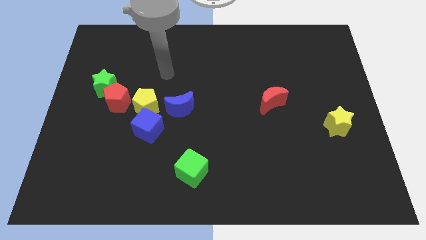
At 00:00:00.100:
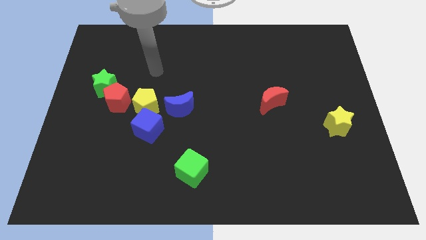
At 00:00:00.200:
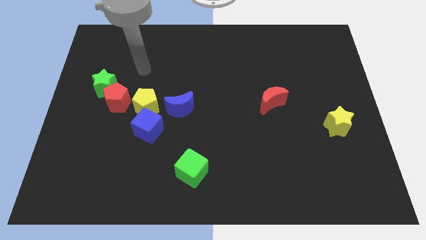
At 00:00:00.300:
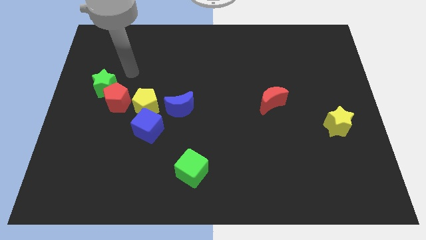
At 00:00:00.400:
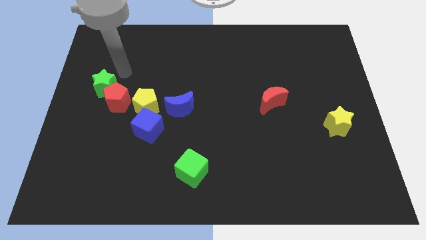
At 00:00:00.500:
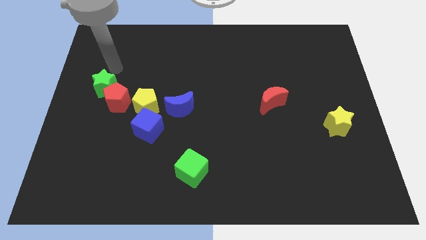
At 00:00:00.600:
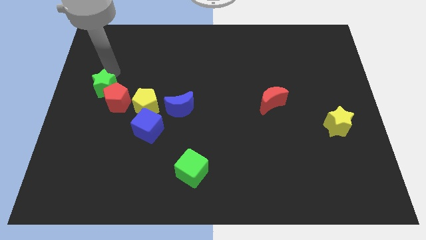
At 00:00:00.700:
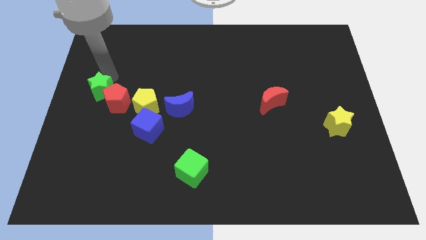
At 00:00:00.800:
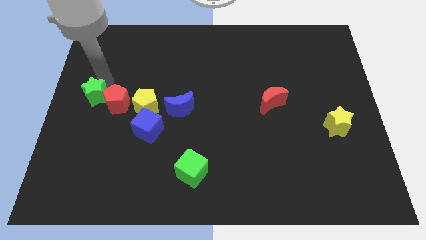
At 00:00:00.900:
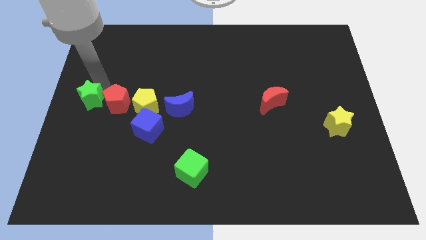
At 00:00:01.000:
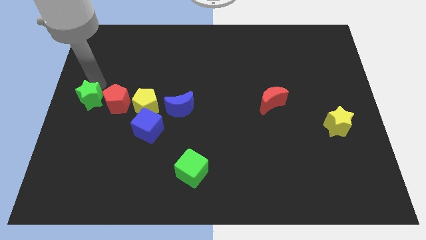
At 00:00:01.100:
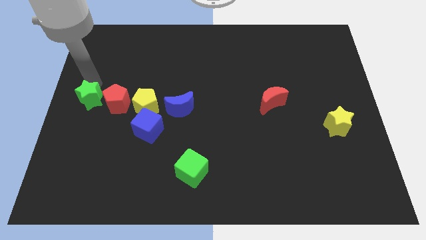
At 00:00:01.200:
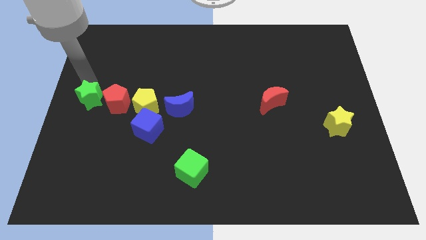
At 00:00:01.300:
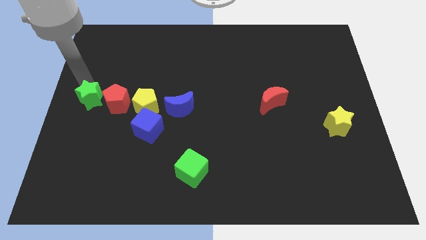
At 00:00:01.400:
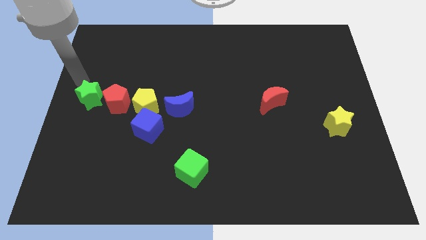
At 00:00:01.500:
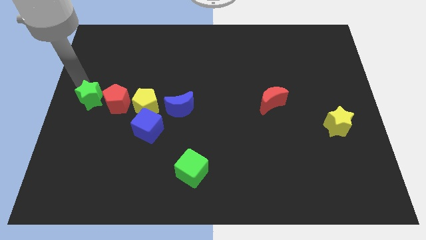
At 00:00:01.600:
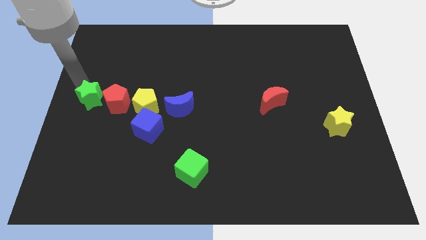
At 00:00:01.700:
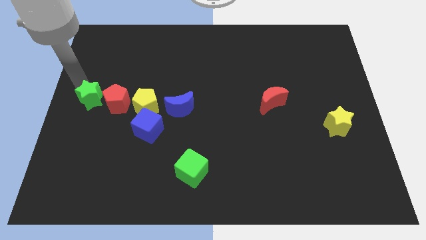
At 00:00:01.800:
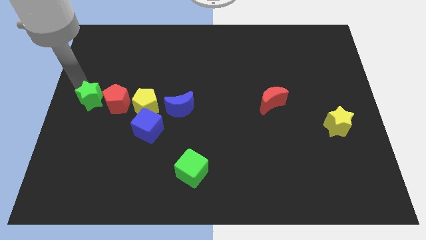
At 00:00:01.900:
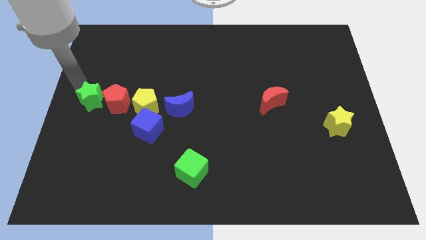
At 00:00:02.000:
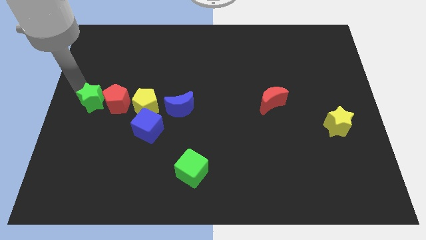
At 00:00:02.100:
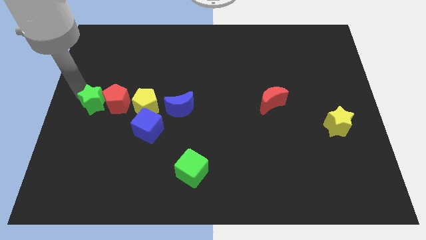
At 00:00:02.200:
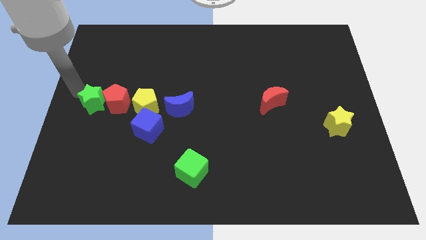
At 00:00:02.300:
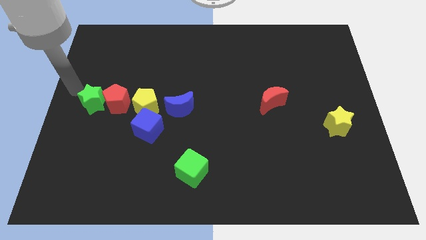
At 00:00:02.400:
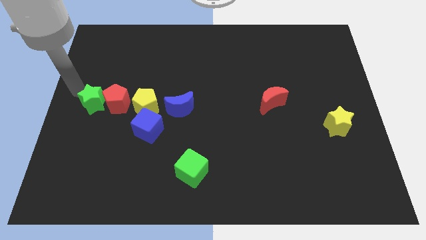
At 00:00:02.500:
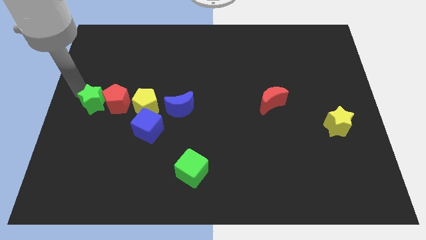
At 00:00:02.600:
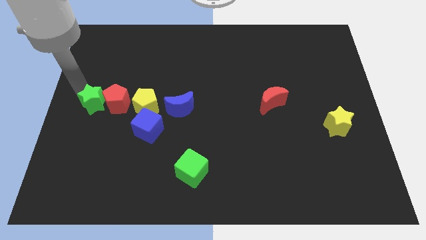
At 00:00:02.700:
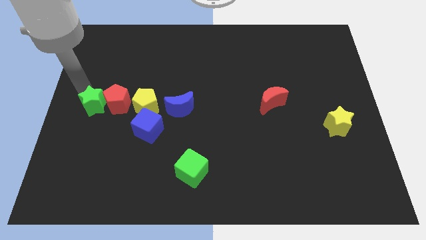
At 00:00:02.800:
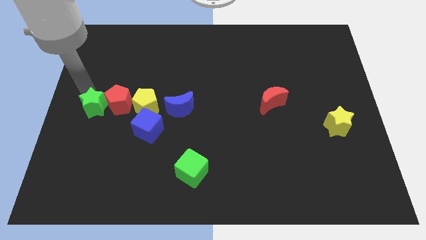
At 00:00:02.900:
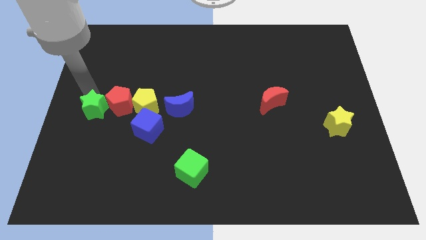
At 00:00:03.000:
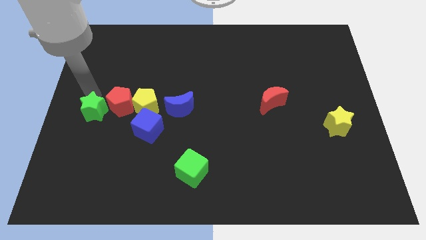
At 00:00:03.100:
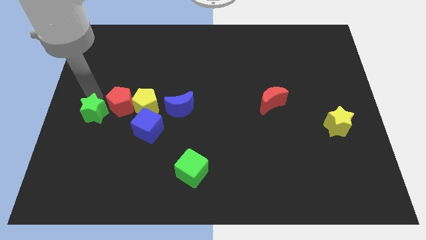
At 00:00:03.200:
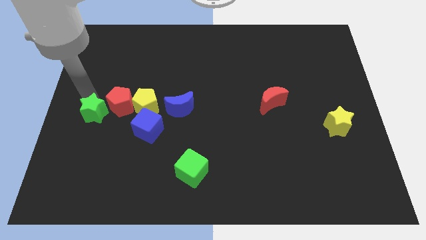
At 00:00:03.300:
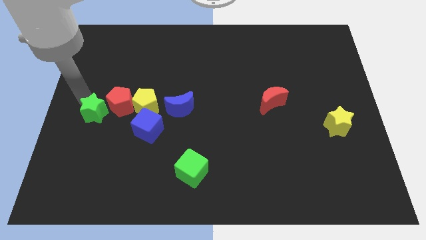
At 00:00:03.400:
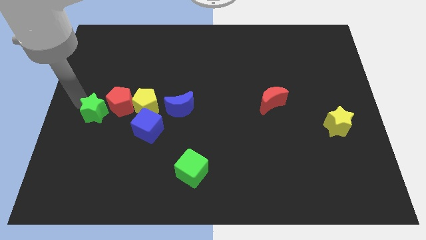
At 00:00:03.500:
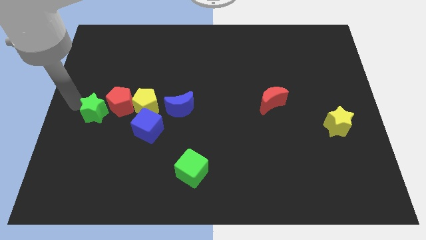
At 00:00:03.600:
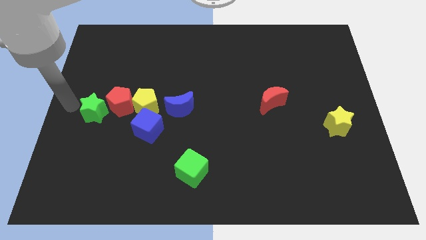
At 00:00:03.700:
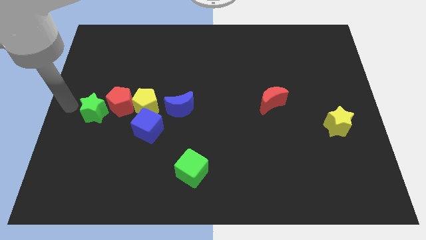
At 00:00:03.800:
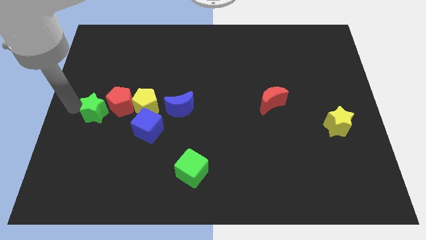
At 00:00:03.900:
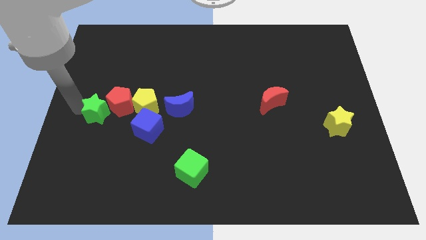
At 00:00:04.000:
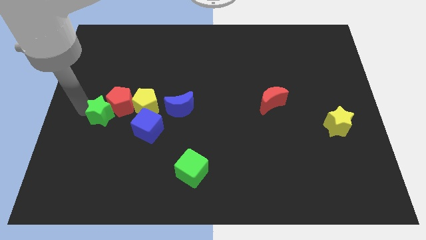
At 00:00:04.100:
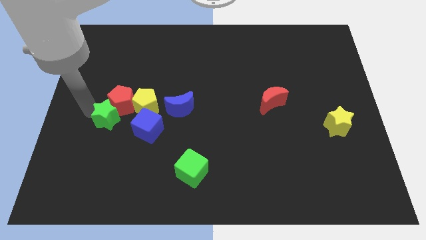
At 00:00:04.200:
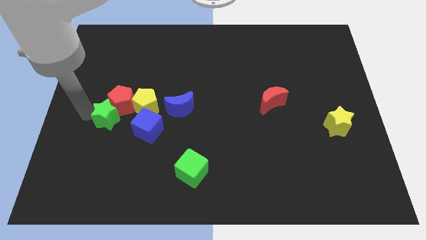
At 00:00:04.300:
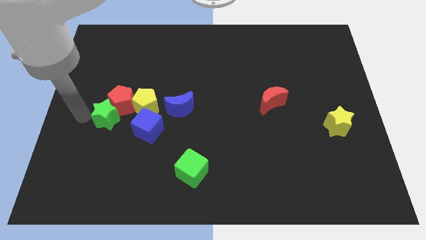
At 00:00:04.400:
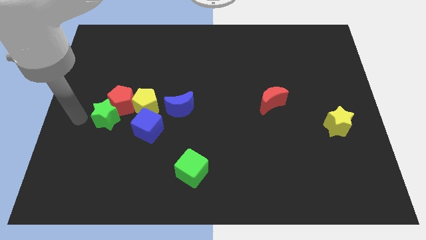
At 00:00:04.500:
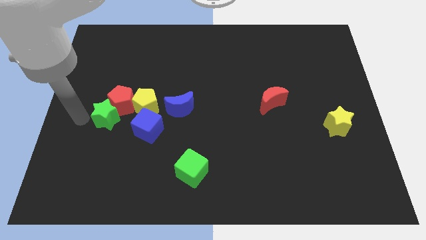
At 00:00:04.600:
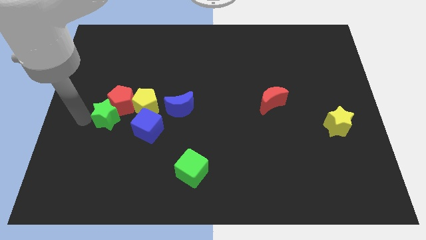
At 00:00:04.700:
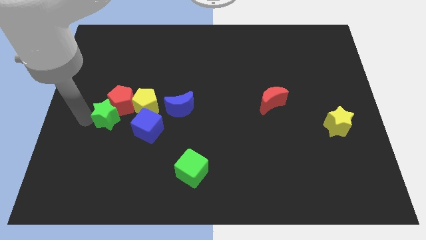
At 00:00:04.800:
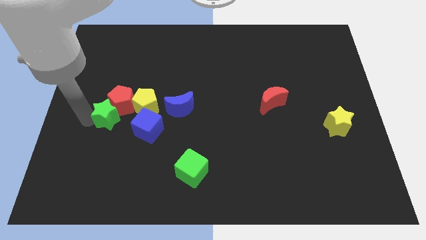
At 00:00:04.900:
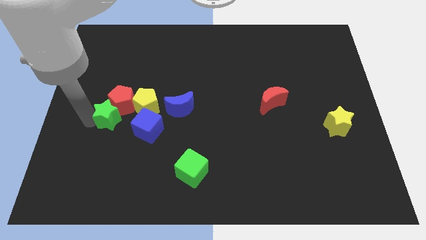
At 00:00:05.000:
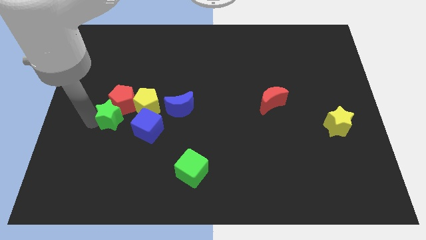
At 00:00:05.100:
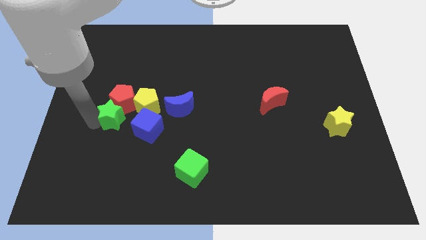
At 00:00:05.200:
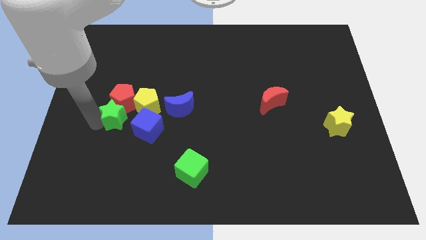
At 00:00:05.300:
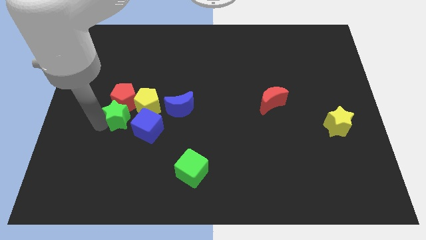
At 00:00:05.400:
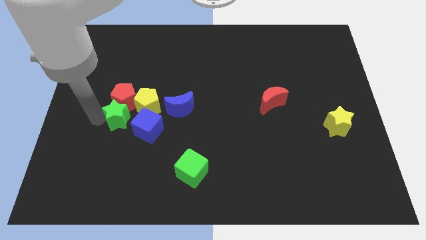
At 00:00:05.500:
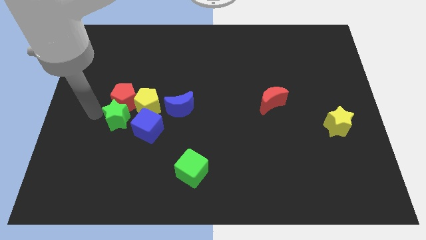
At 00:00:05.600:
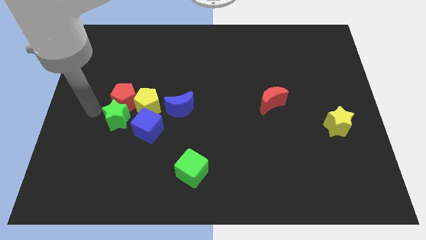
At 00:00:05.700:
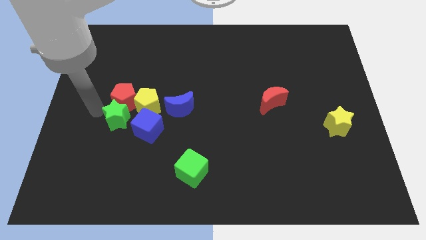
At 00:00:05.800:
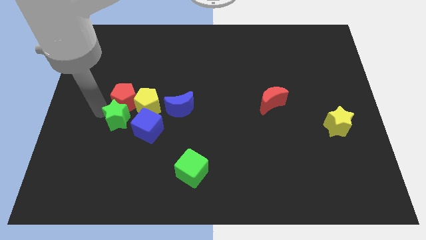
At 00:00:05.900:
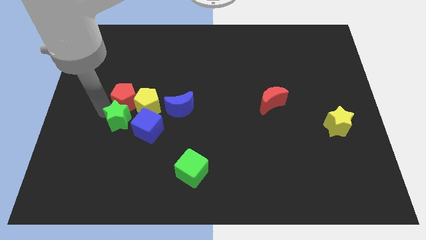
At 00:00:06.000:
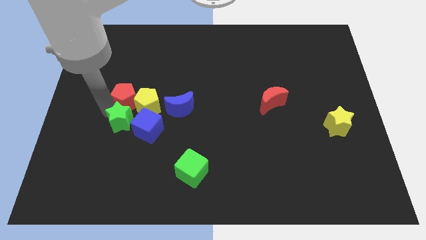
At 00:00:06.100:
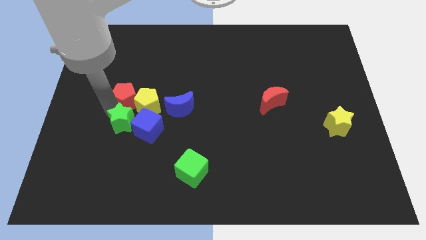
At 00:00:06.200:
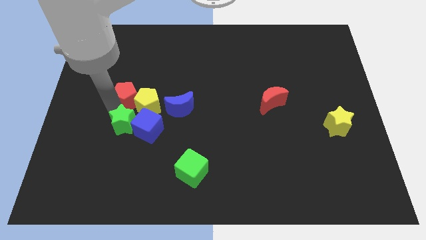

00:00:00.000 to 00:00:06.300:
slide the green star towards the blue cube

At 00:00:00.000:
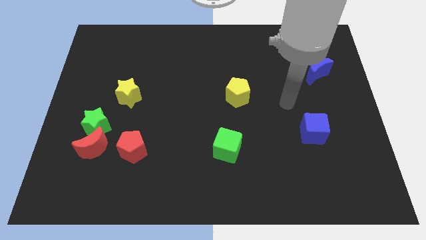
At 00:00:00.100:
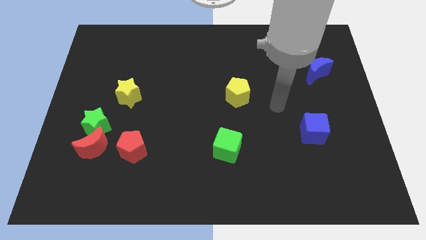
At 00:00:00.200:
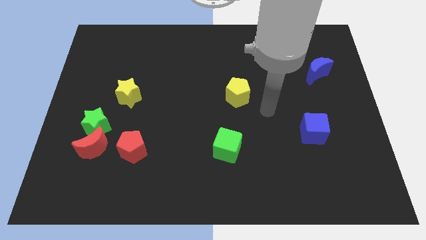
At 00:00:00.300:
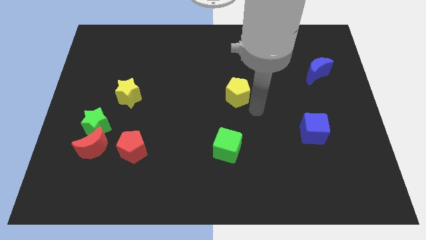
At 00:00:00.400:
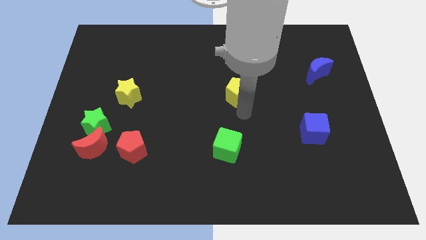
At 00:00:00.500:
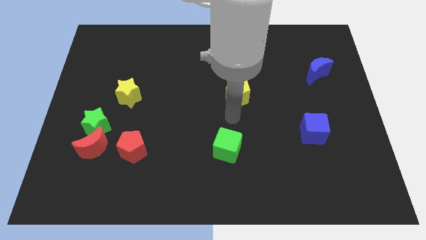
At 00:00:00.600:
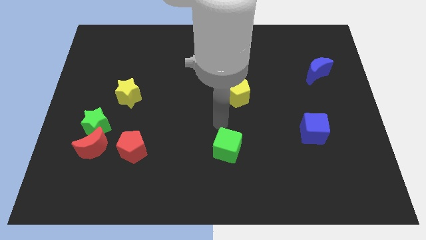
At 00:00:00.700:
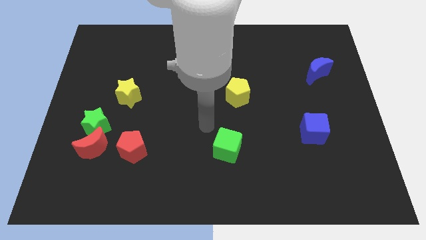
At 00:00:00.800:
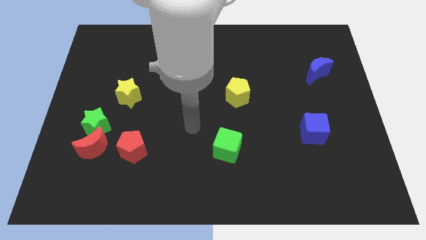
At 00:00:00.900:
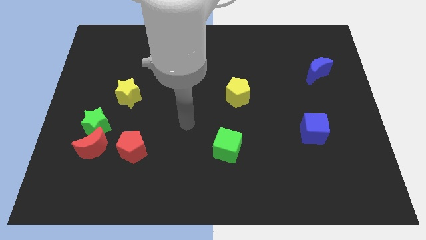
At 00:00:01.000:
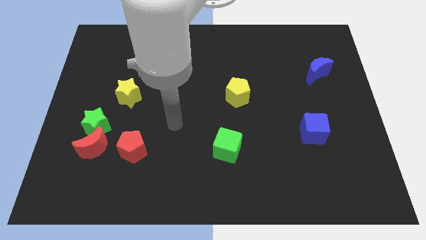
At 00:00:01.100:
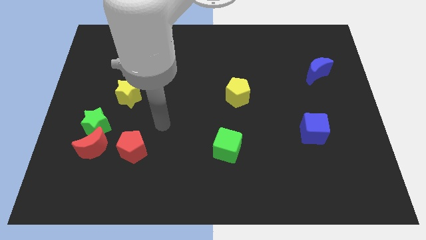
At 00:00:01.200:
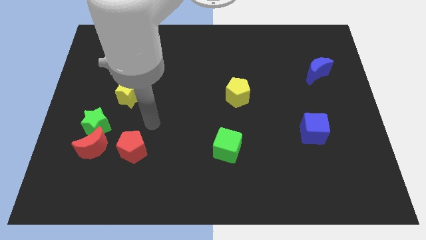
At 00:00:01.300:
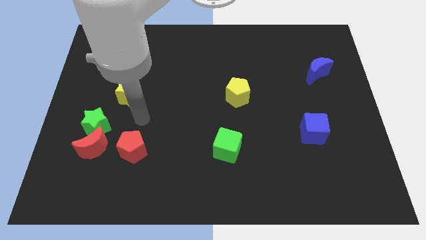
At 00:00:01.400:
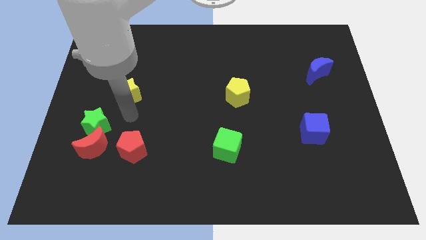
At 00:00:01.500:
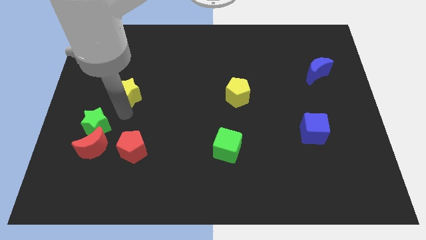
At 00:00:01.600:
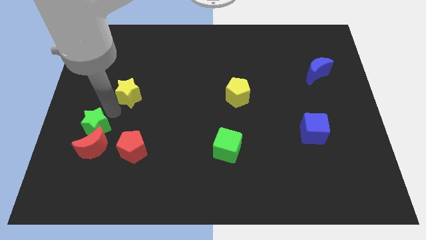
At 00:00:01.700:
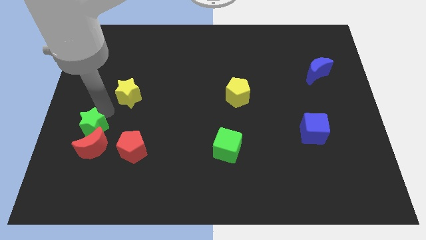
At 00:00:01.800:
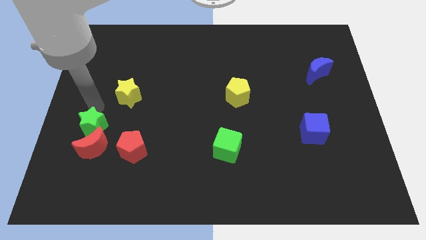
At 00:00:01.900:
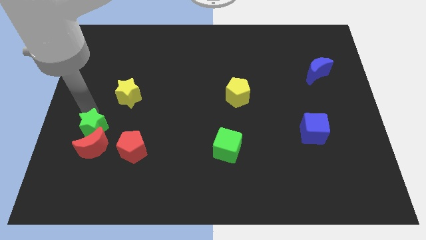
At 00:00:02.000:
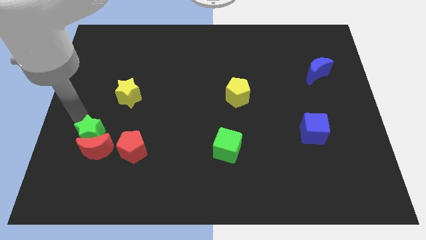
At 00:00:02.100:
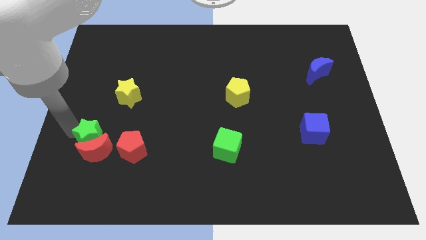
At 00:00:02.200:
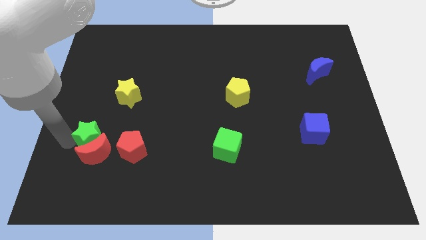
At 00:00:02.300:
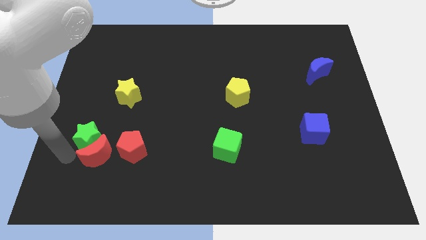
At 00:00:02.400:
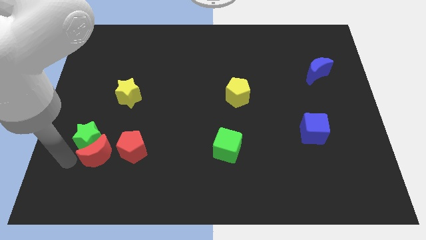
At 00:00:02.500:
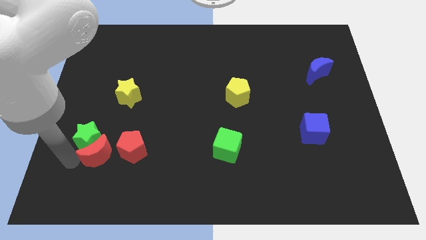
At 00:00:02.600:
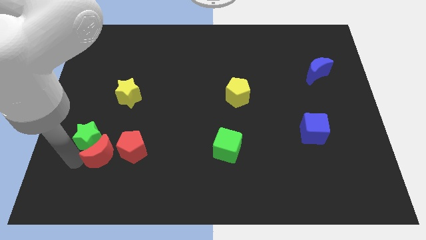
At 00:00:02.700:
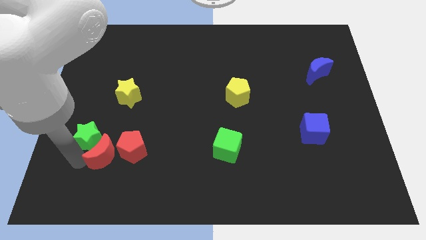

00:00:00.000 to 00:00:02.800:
put the red moon towards the red pentagon
